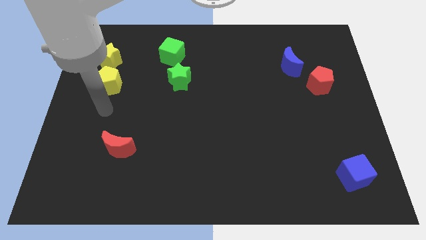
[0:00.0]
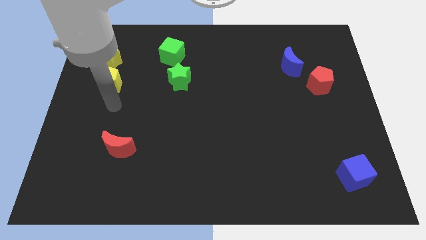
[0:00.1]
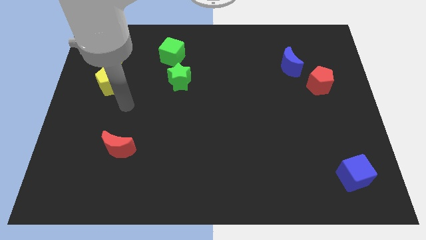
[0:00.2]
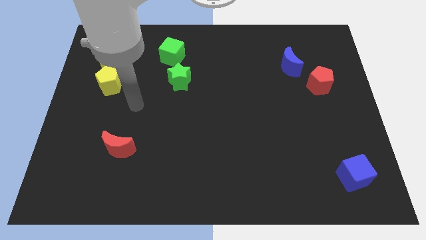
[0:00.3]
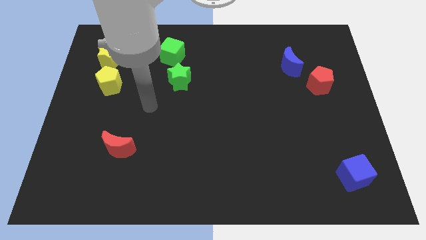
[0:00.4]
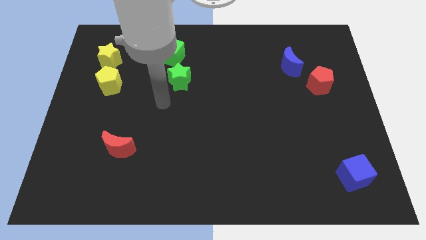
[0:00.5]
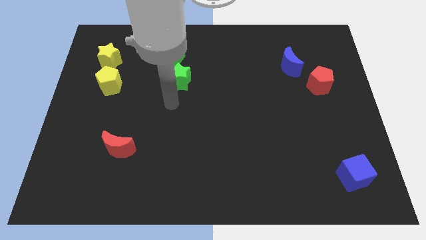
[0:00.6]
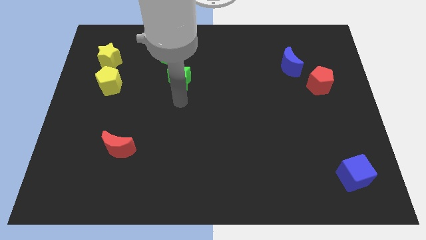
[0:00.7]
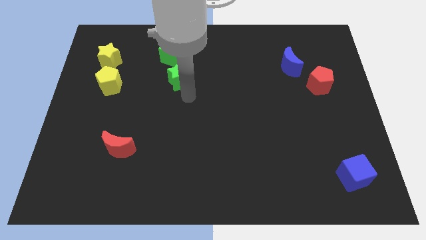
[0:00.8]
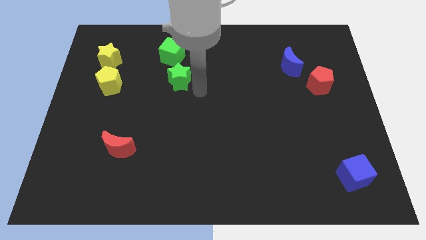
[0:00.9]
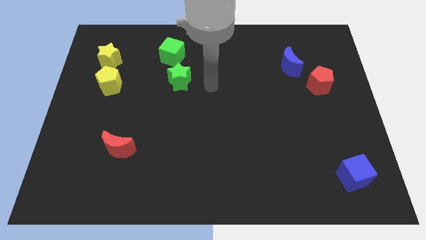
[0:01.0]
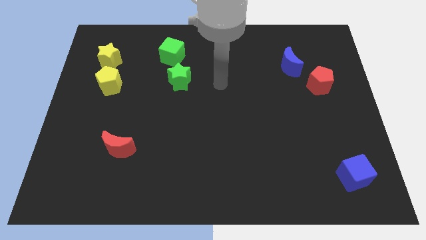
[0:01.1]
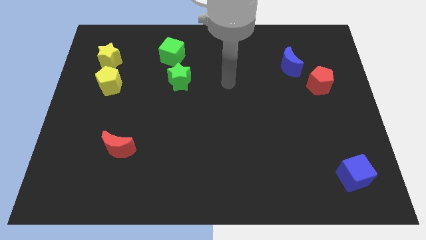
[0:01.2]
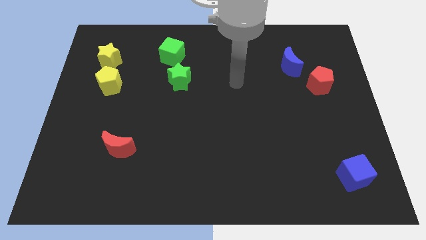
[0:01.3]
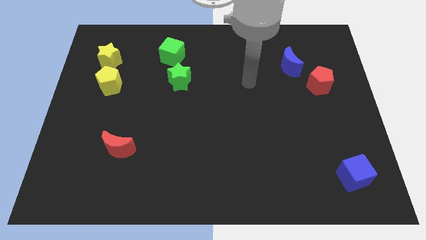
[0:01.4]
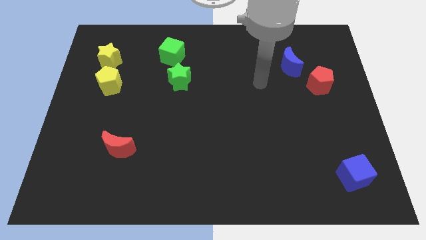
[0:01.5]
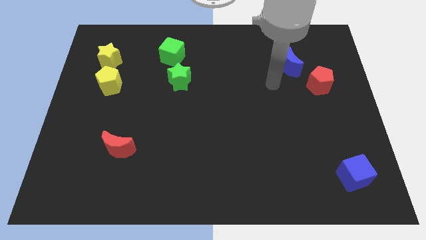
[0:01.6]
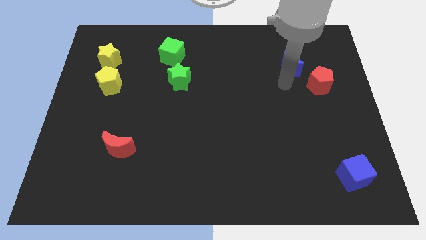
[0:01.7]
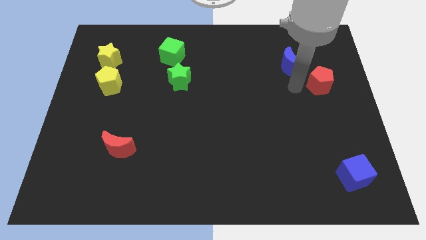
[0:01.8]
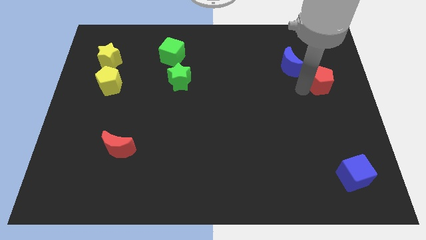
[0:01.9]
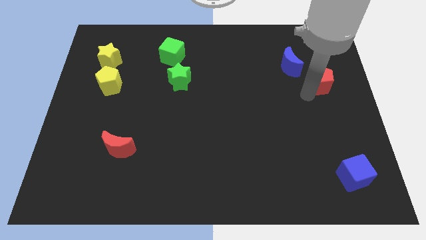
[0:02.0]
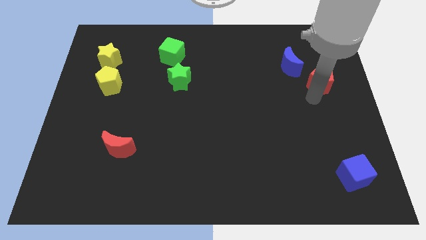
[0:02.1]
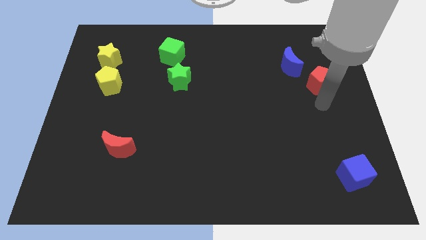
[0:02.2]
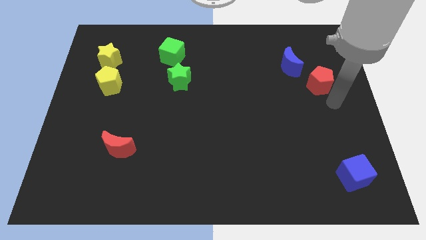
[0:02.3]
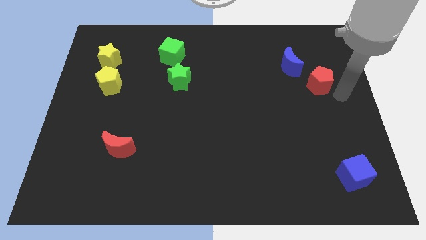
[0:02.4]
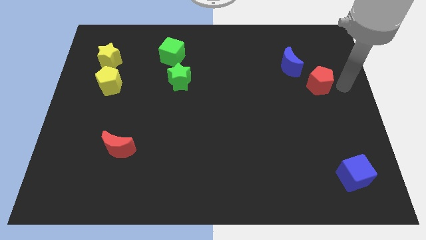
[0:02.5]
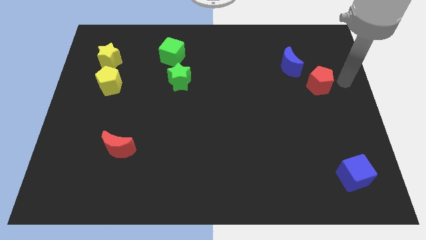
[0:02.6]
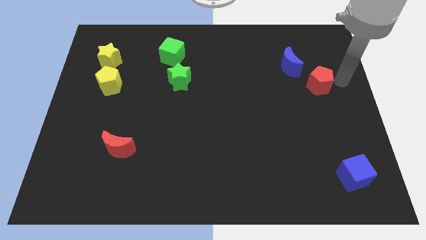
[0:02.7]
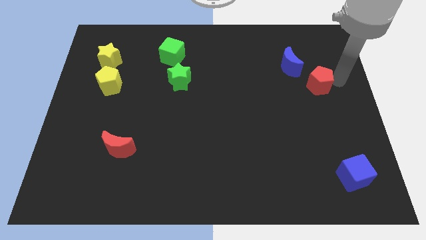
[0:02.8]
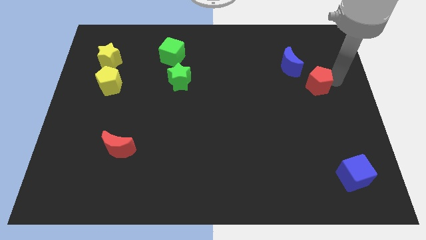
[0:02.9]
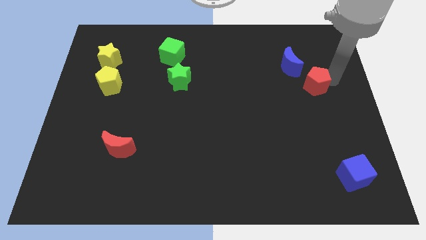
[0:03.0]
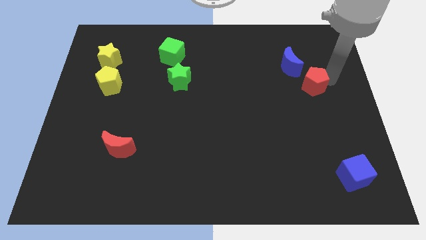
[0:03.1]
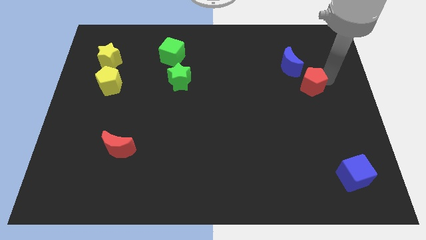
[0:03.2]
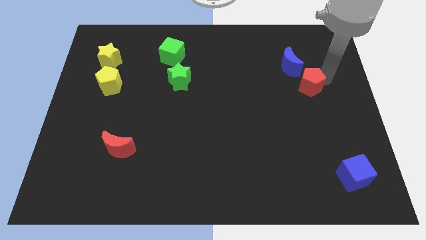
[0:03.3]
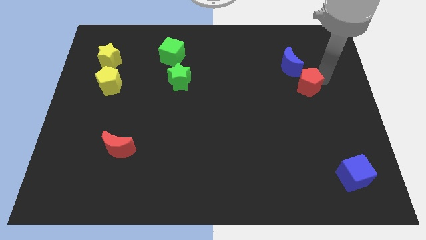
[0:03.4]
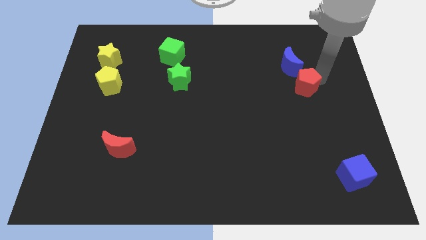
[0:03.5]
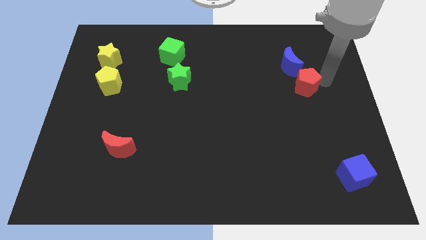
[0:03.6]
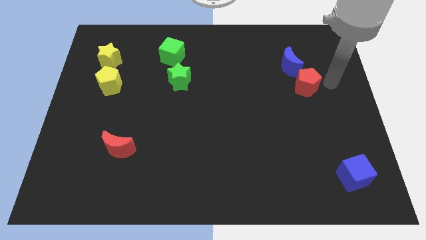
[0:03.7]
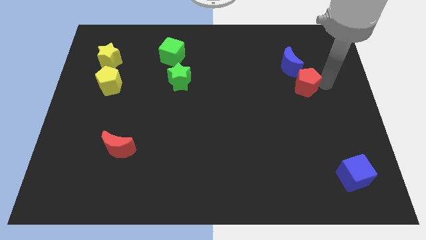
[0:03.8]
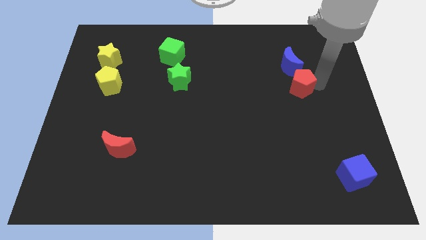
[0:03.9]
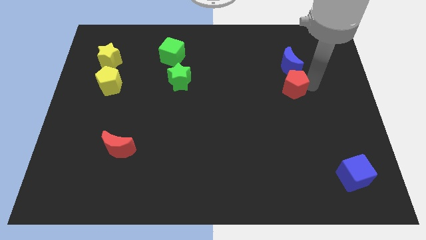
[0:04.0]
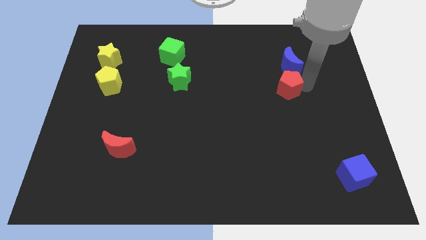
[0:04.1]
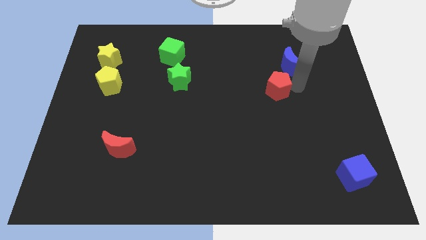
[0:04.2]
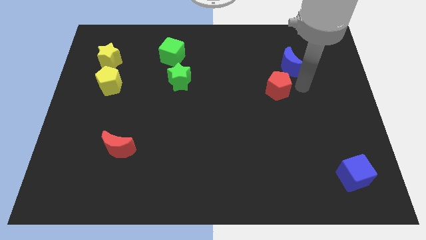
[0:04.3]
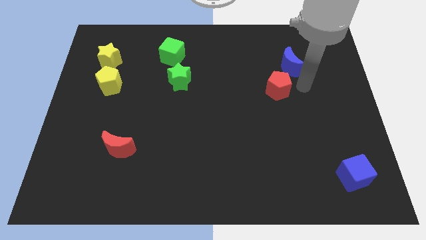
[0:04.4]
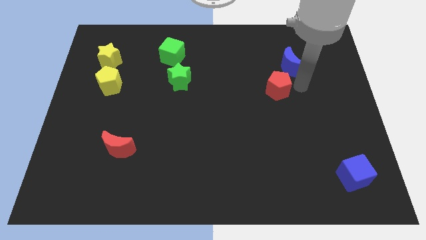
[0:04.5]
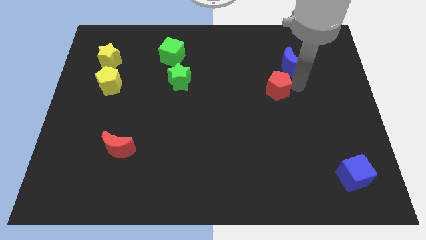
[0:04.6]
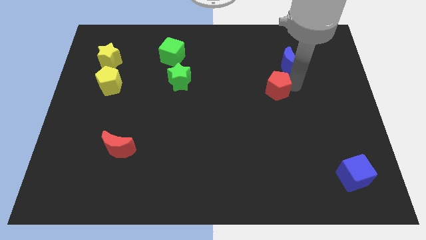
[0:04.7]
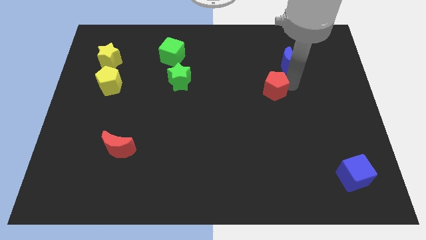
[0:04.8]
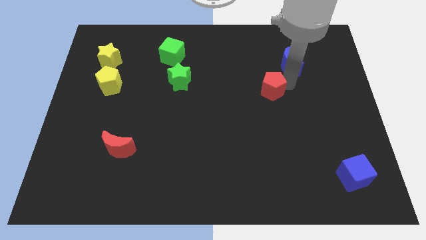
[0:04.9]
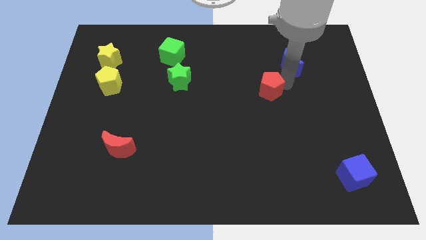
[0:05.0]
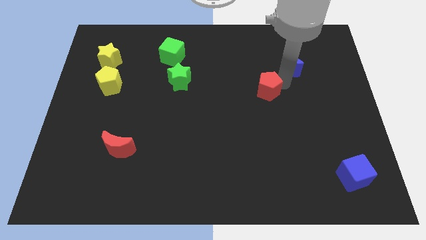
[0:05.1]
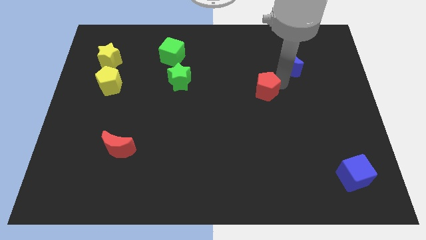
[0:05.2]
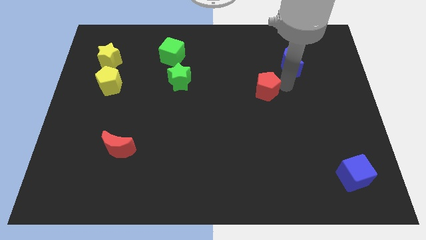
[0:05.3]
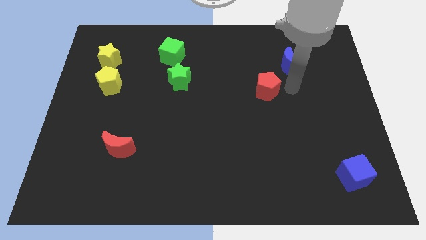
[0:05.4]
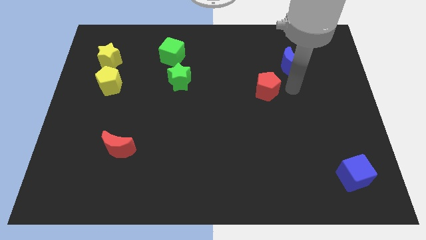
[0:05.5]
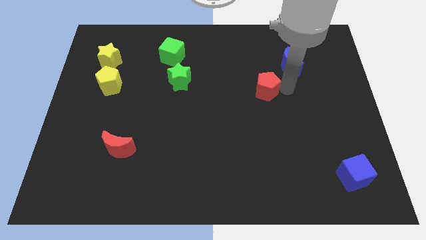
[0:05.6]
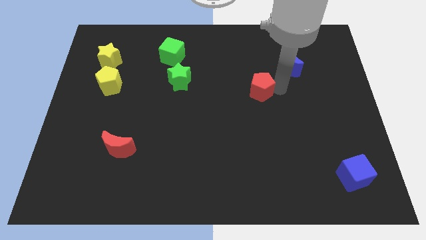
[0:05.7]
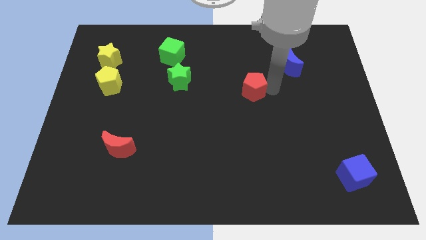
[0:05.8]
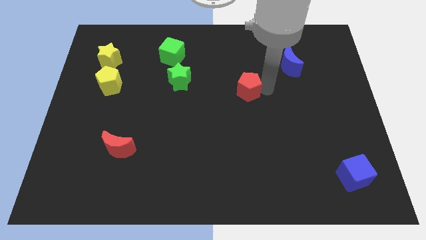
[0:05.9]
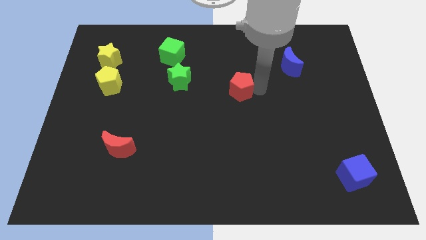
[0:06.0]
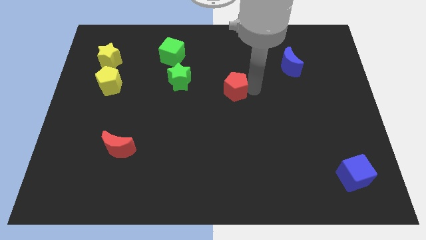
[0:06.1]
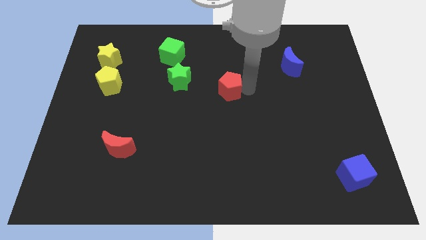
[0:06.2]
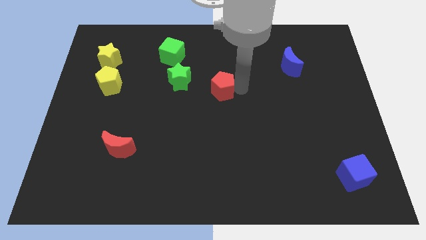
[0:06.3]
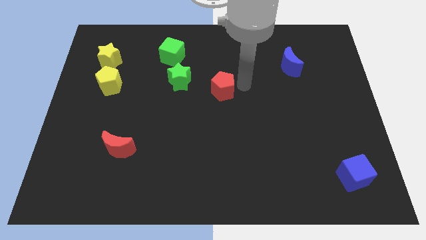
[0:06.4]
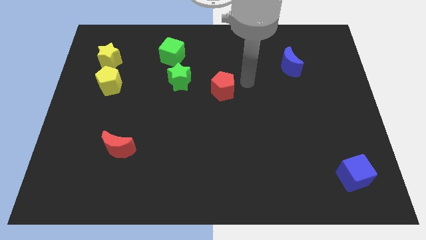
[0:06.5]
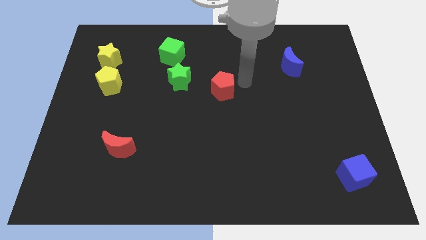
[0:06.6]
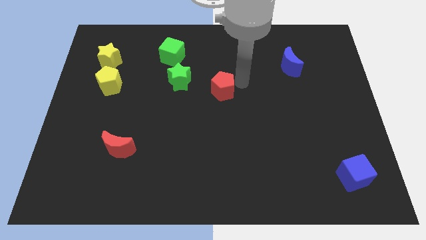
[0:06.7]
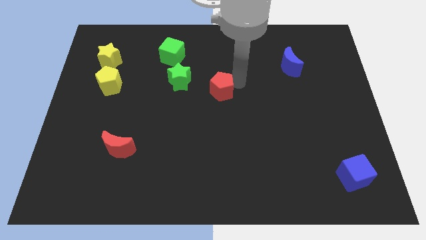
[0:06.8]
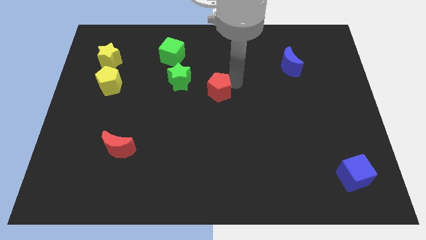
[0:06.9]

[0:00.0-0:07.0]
slide the red pentagon to the bottom right of the green star
